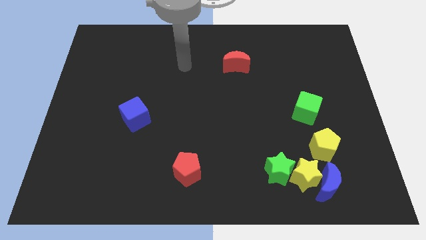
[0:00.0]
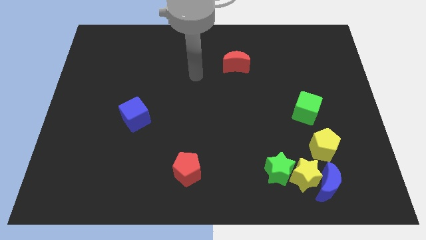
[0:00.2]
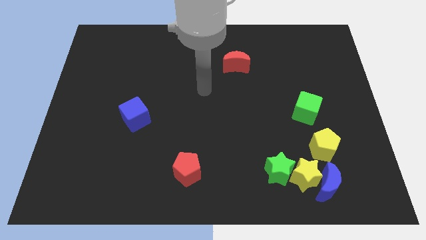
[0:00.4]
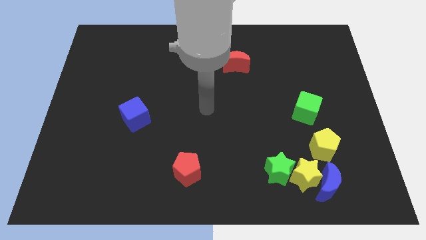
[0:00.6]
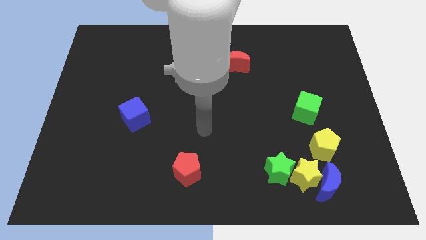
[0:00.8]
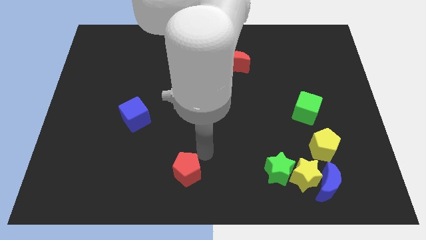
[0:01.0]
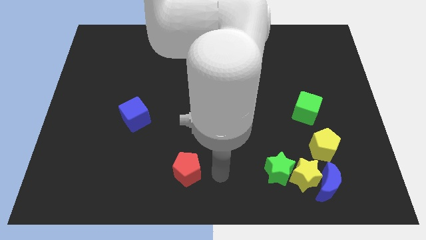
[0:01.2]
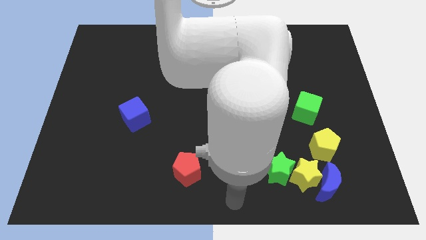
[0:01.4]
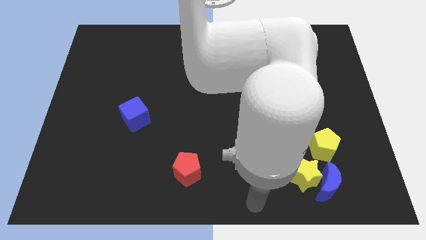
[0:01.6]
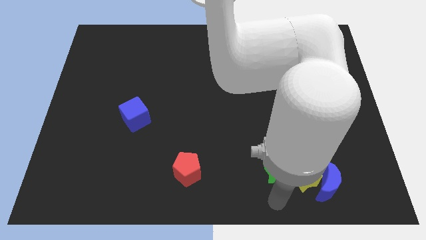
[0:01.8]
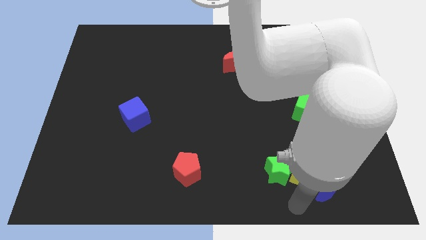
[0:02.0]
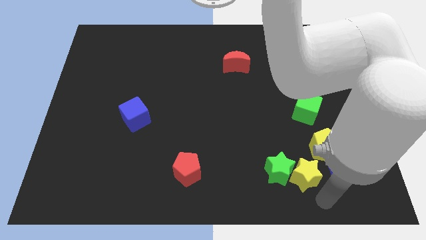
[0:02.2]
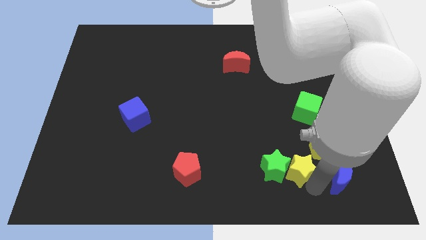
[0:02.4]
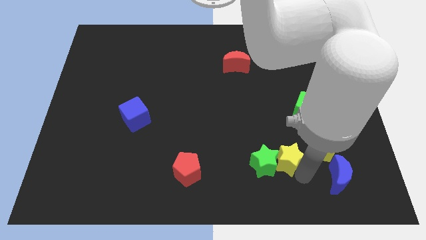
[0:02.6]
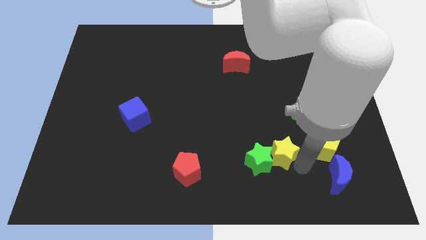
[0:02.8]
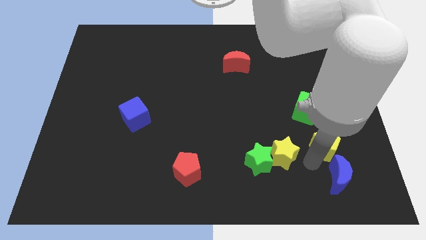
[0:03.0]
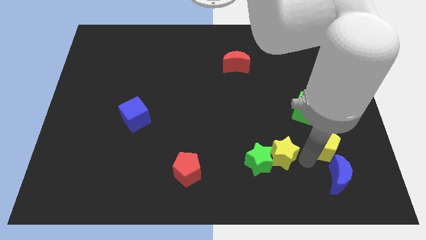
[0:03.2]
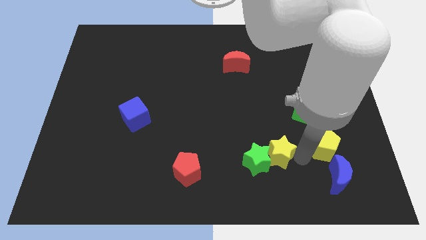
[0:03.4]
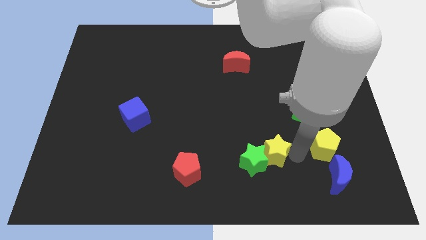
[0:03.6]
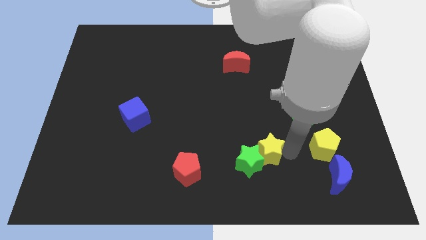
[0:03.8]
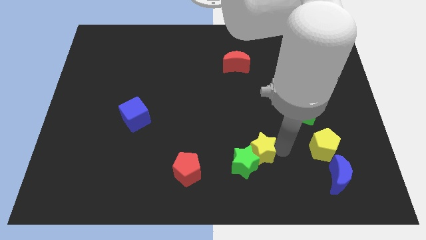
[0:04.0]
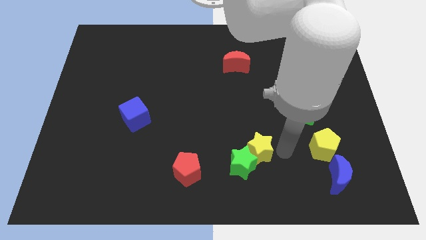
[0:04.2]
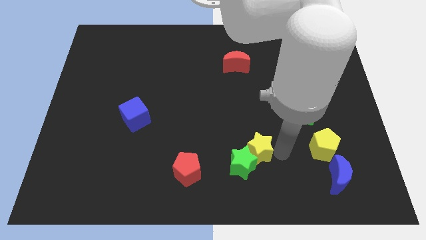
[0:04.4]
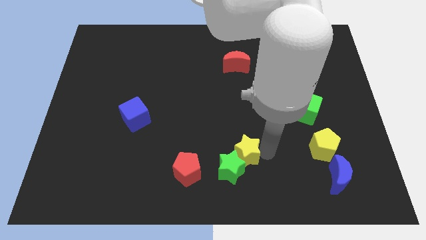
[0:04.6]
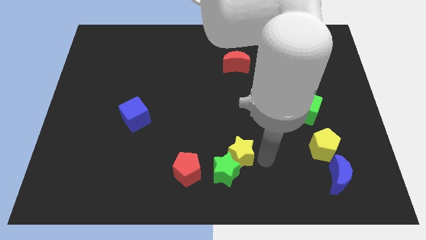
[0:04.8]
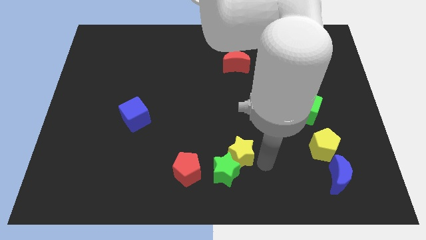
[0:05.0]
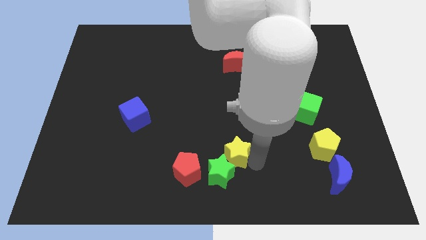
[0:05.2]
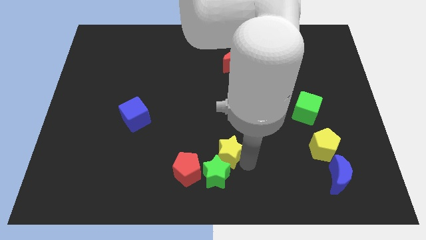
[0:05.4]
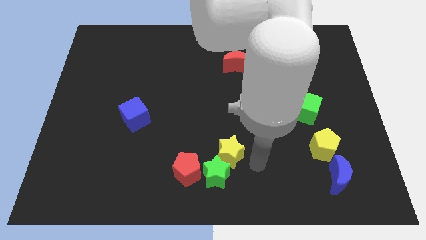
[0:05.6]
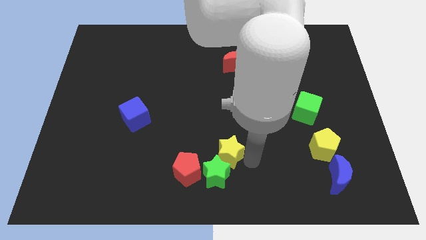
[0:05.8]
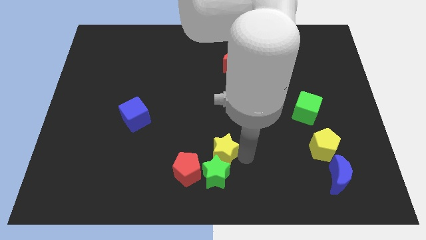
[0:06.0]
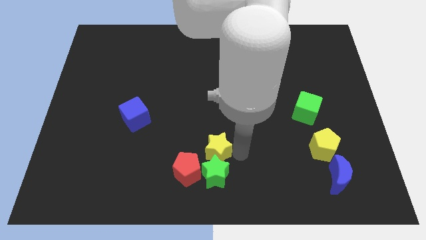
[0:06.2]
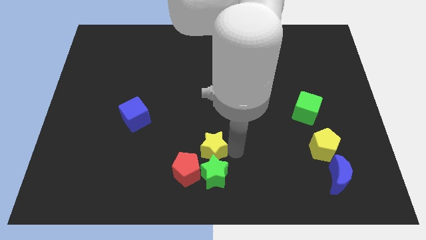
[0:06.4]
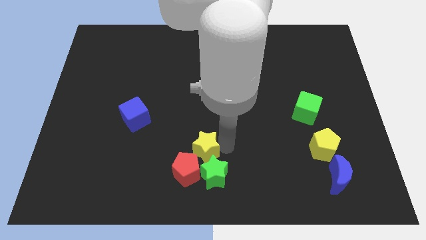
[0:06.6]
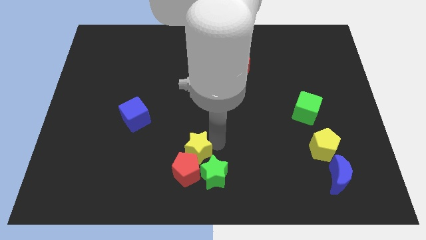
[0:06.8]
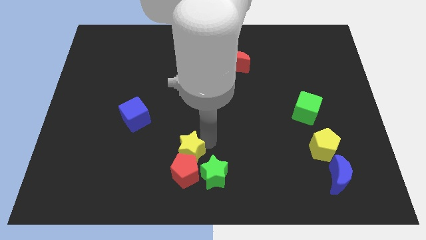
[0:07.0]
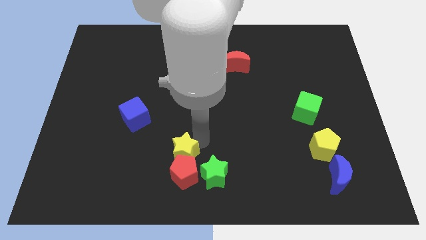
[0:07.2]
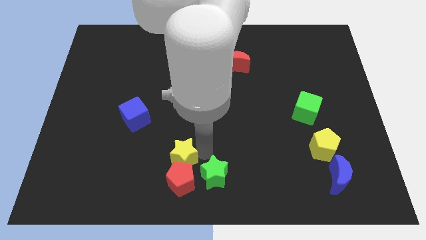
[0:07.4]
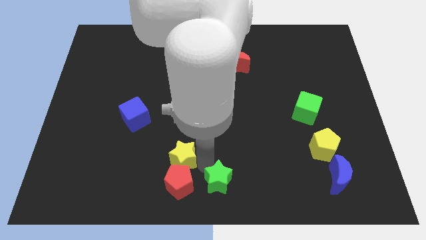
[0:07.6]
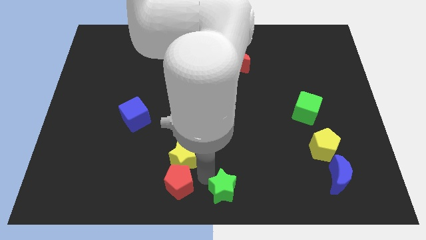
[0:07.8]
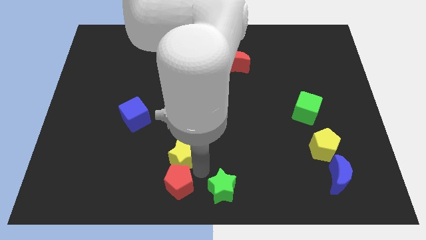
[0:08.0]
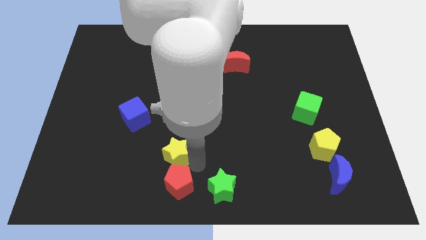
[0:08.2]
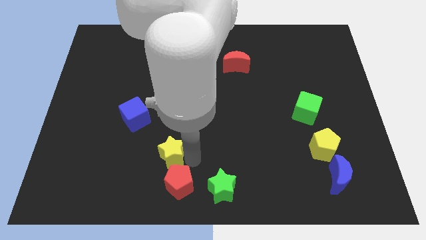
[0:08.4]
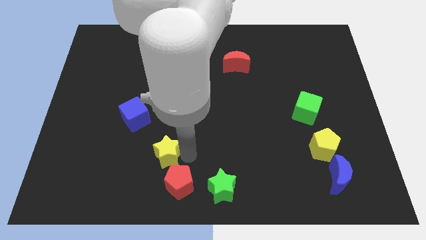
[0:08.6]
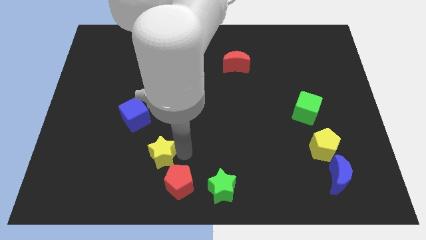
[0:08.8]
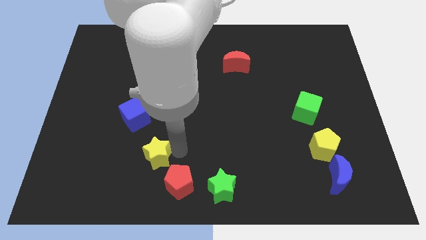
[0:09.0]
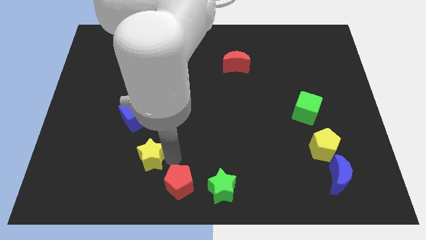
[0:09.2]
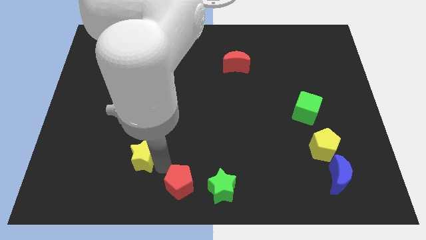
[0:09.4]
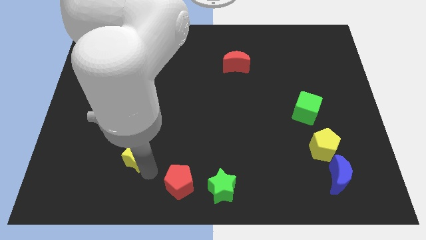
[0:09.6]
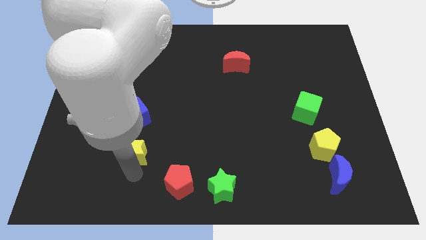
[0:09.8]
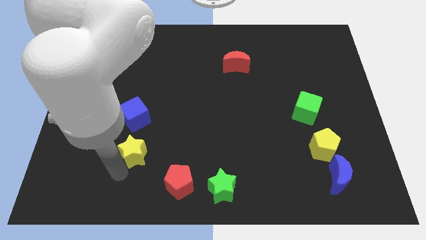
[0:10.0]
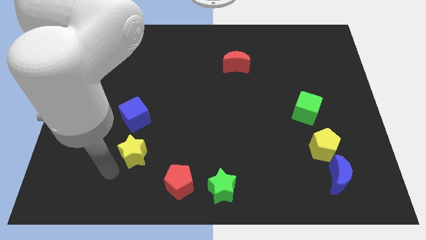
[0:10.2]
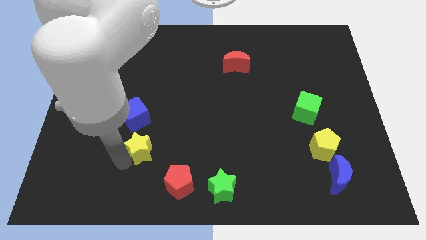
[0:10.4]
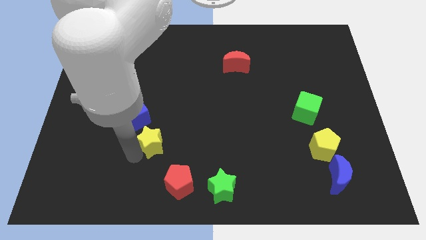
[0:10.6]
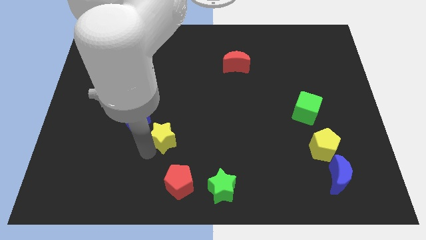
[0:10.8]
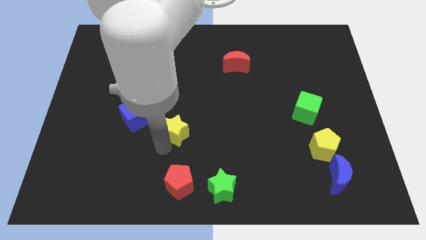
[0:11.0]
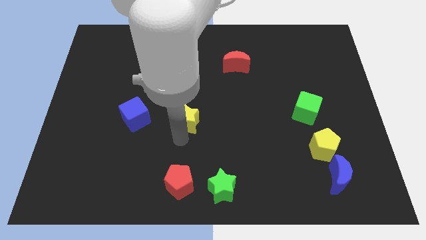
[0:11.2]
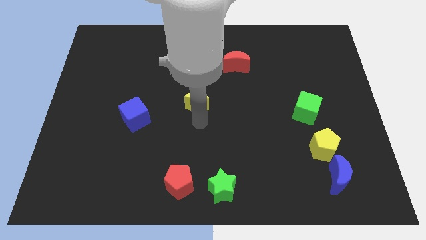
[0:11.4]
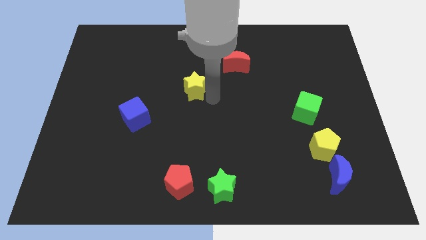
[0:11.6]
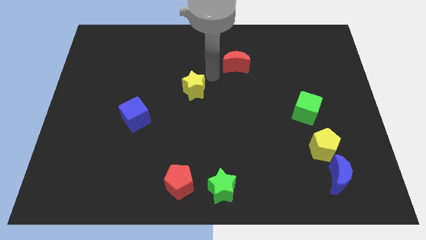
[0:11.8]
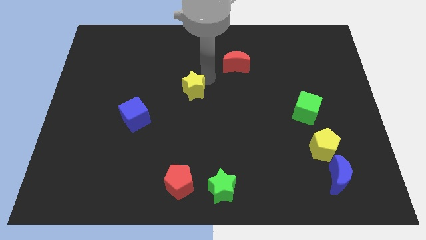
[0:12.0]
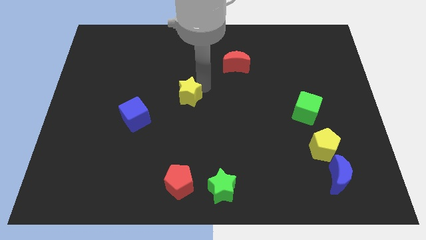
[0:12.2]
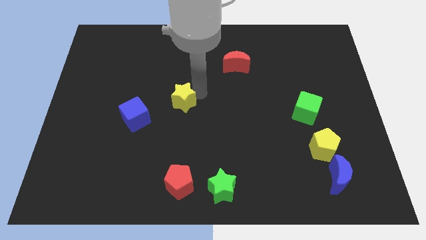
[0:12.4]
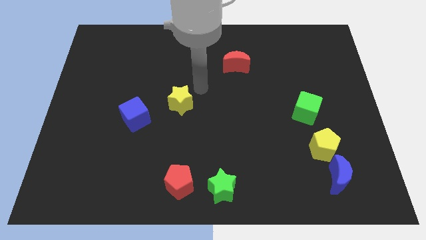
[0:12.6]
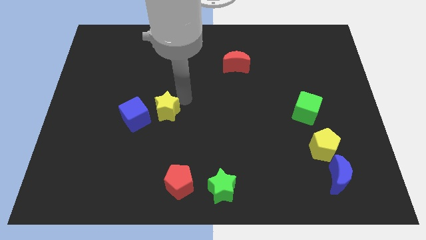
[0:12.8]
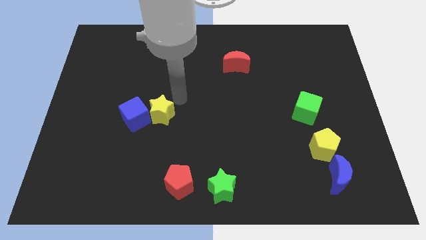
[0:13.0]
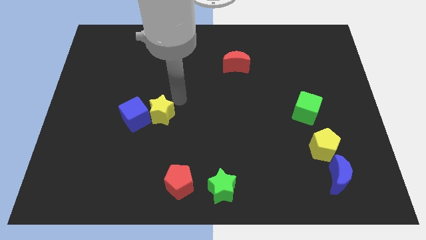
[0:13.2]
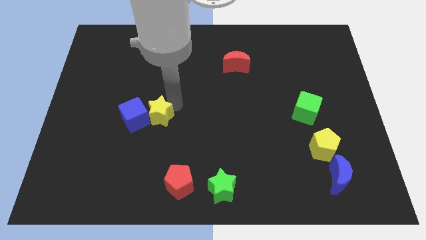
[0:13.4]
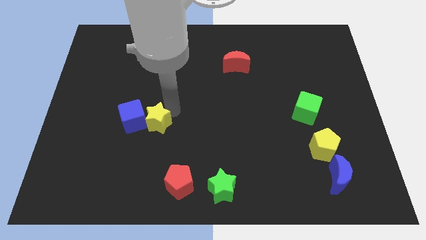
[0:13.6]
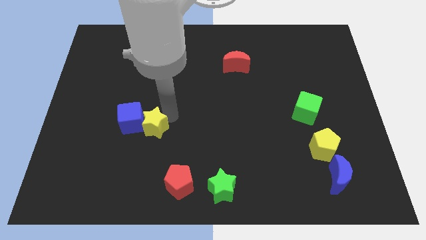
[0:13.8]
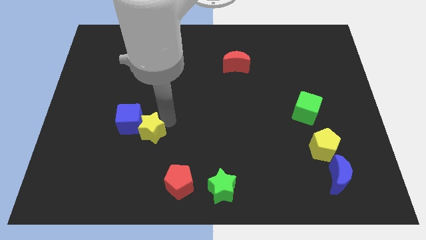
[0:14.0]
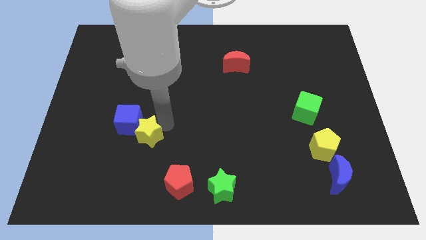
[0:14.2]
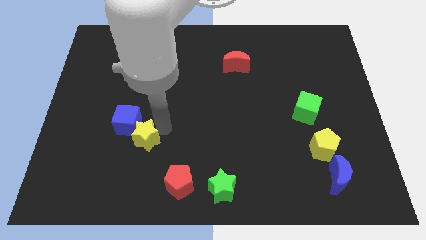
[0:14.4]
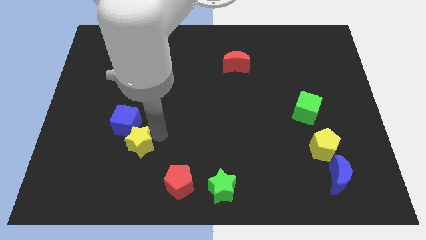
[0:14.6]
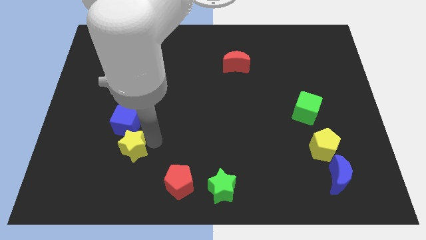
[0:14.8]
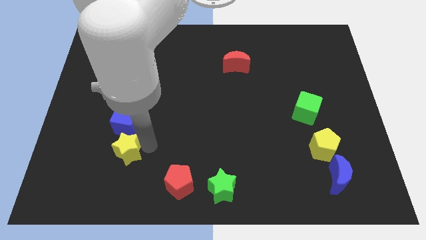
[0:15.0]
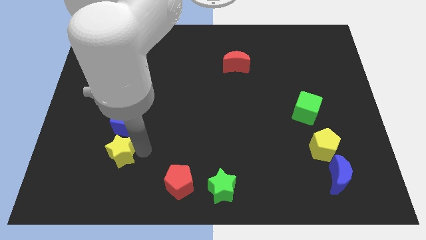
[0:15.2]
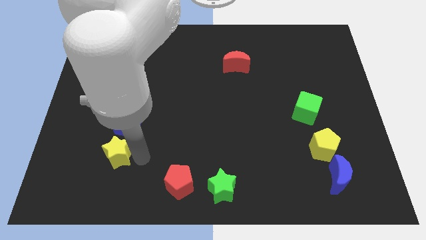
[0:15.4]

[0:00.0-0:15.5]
push the yellow star diagonally down and to the left of the blue cube
